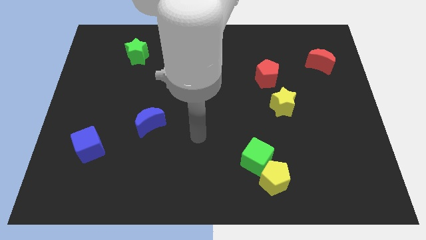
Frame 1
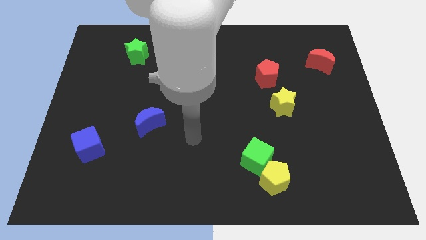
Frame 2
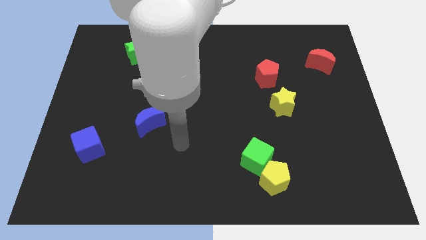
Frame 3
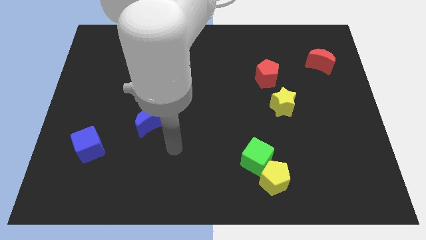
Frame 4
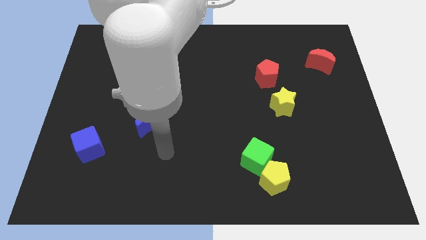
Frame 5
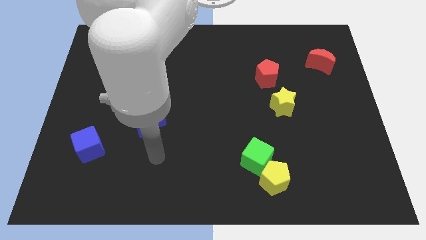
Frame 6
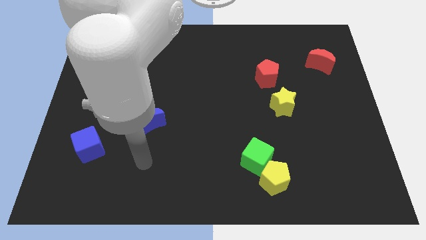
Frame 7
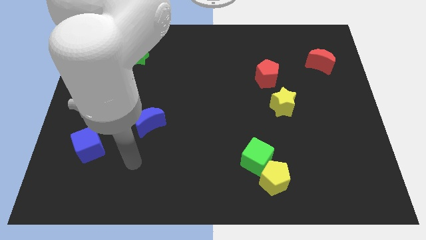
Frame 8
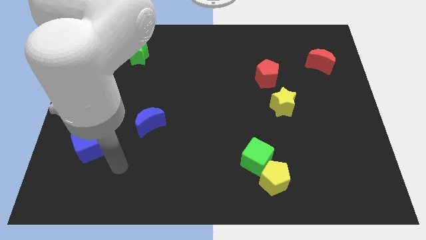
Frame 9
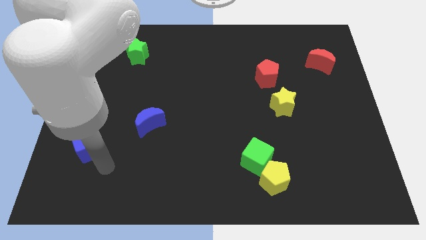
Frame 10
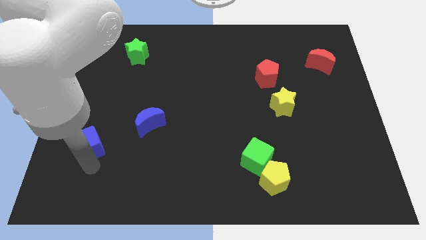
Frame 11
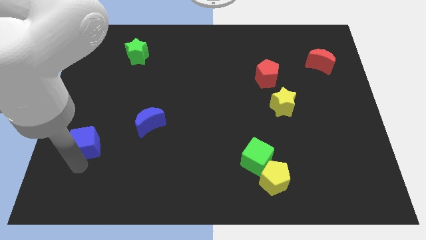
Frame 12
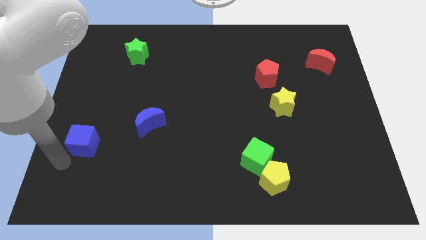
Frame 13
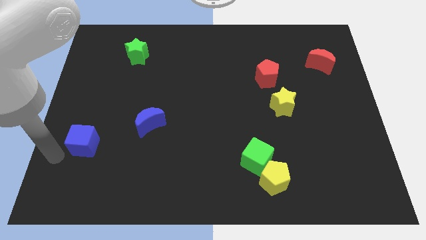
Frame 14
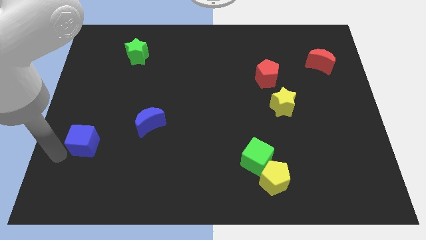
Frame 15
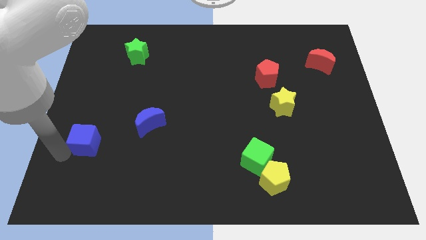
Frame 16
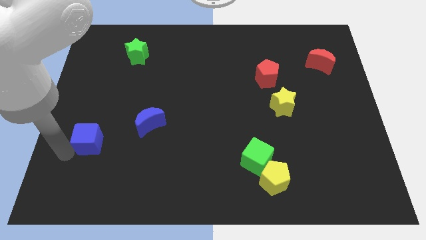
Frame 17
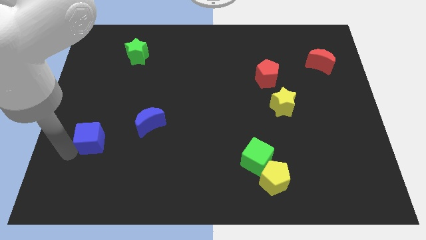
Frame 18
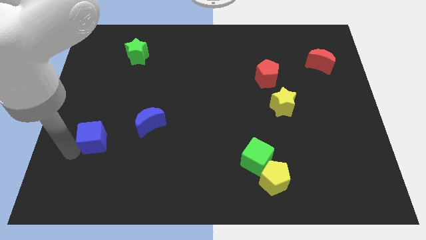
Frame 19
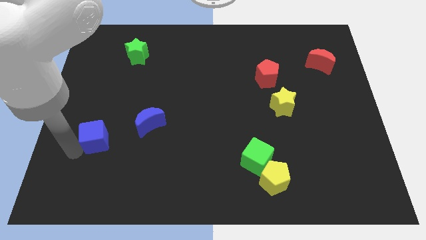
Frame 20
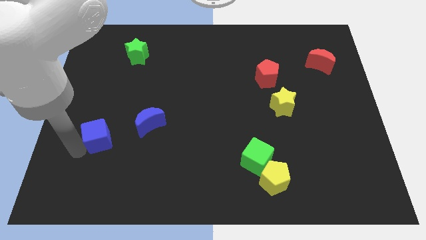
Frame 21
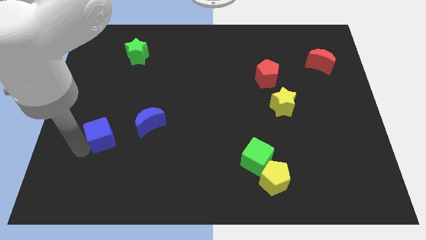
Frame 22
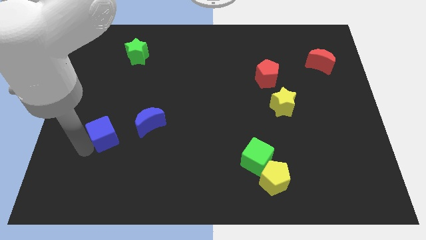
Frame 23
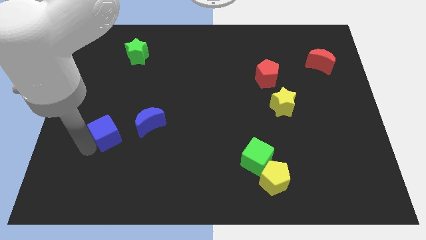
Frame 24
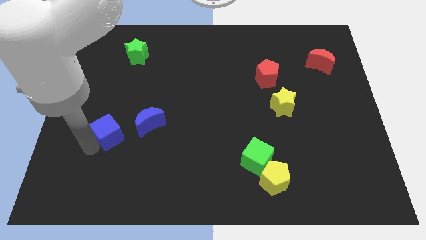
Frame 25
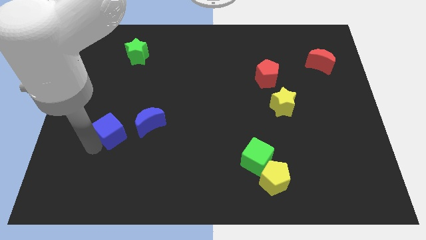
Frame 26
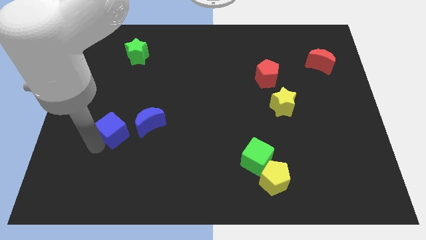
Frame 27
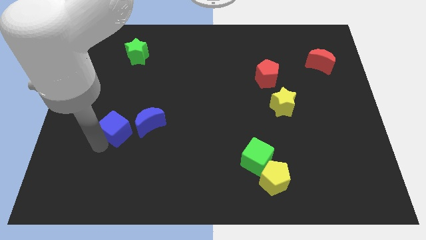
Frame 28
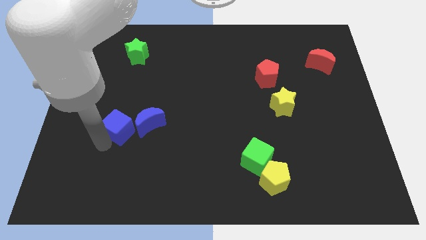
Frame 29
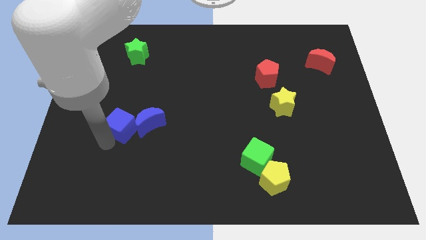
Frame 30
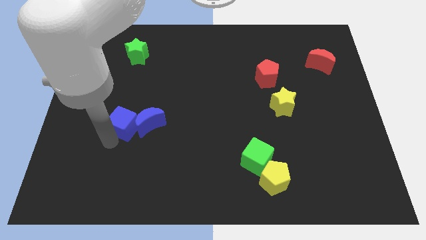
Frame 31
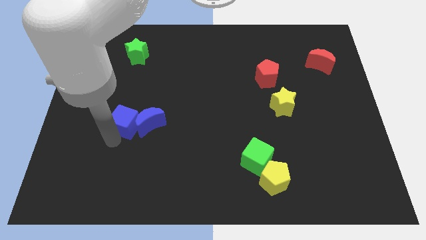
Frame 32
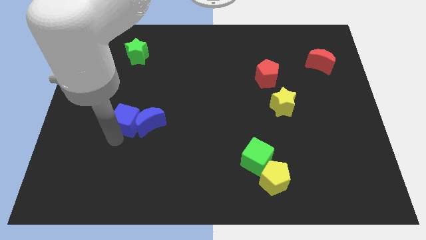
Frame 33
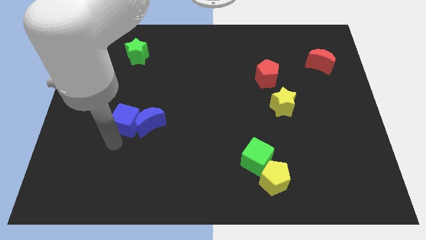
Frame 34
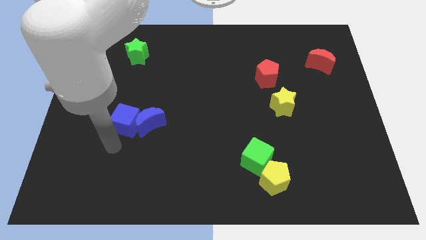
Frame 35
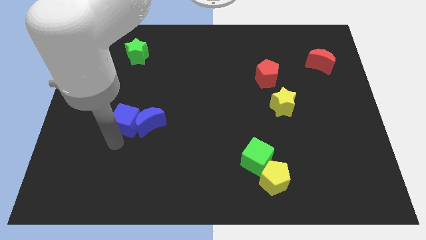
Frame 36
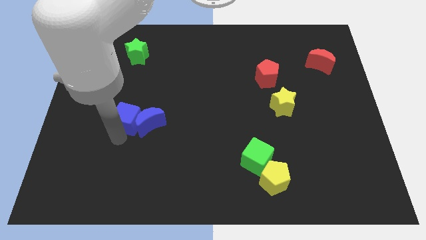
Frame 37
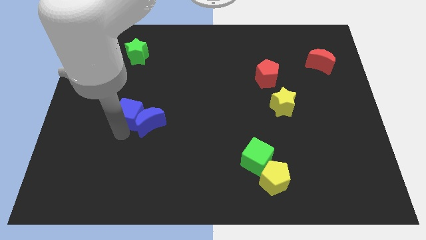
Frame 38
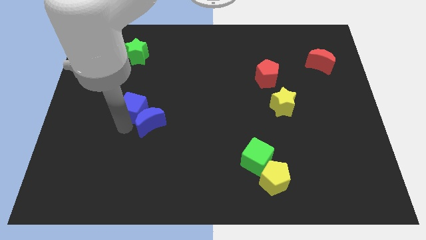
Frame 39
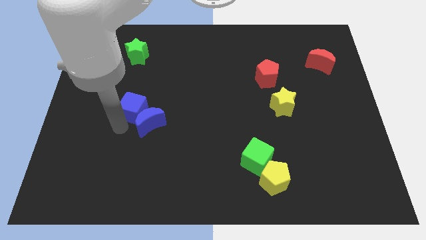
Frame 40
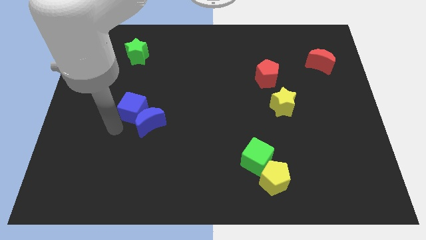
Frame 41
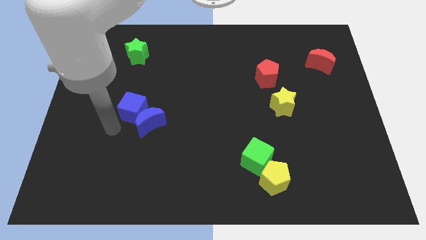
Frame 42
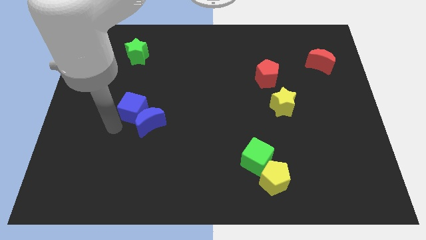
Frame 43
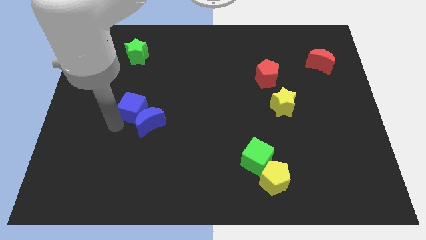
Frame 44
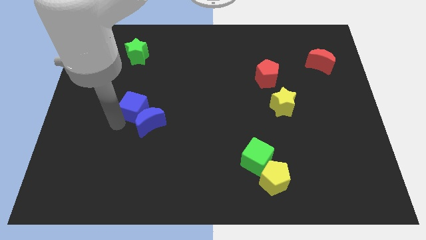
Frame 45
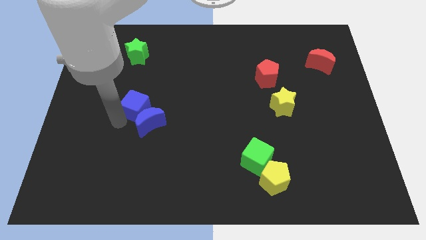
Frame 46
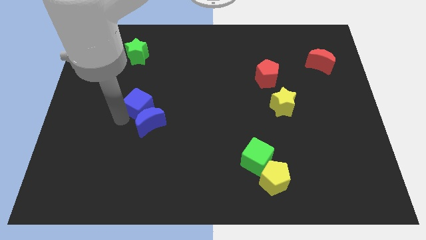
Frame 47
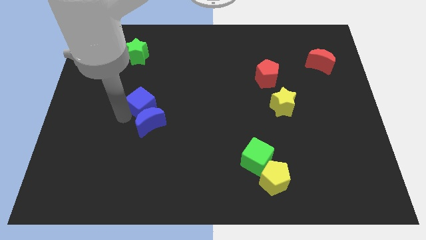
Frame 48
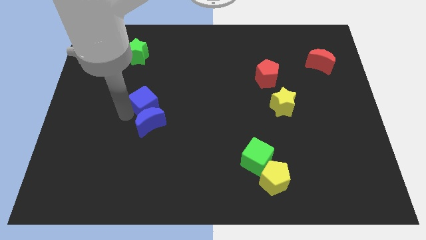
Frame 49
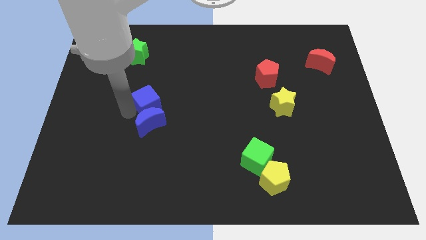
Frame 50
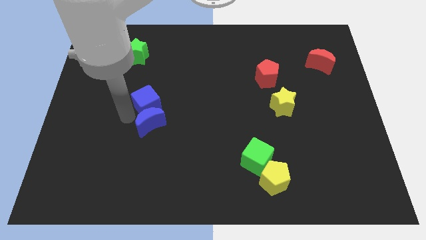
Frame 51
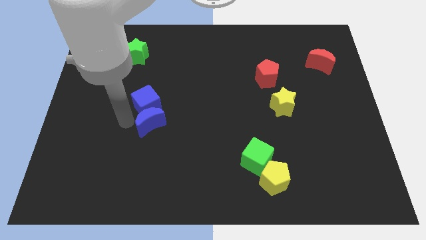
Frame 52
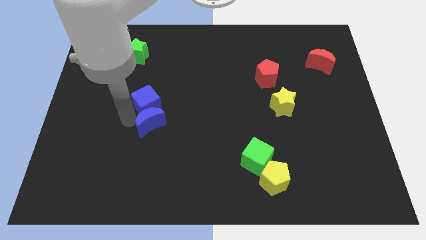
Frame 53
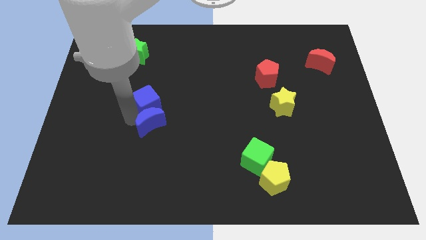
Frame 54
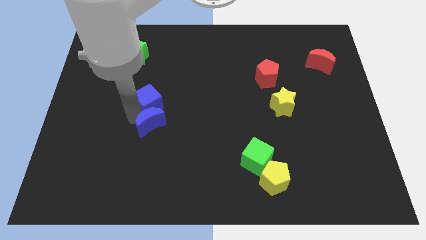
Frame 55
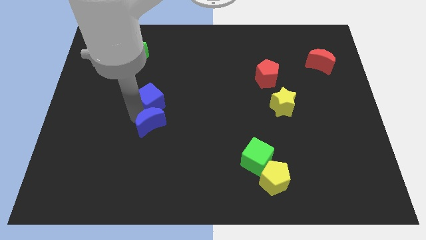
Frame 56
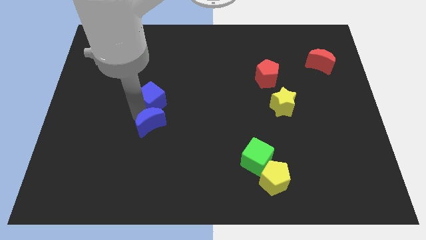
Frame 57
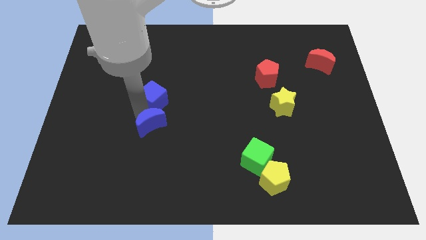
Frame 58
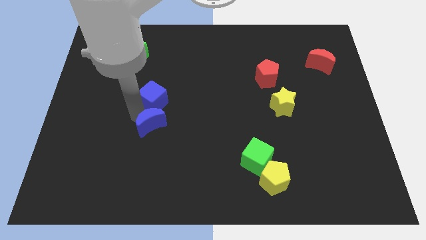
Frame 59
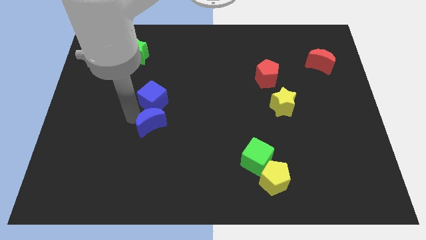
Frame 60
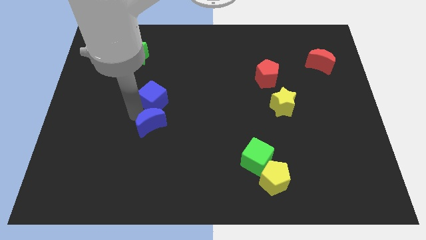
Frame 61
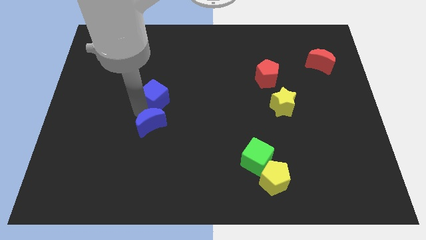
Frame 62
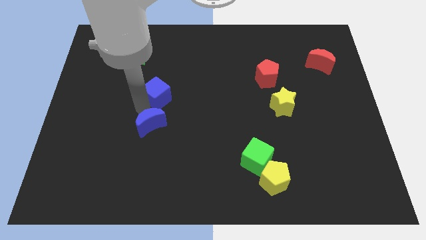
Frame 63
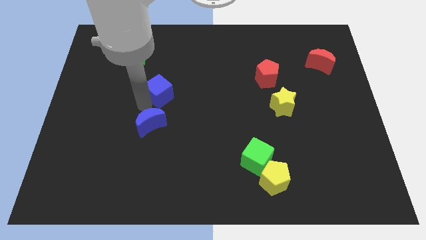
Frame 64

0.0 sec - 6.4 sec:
push the blue cube diagonally up and right

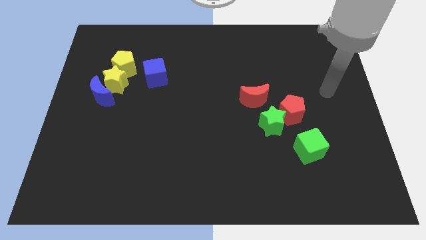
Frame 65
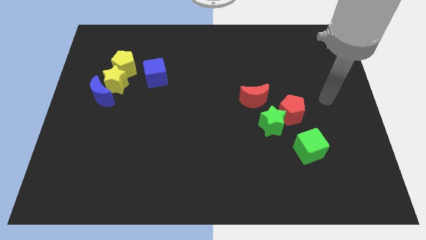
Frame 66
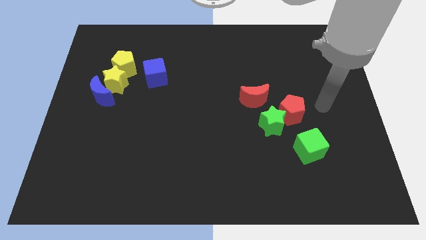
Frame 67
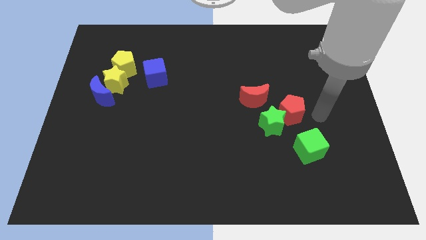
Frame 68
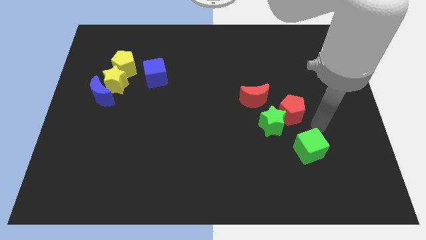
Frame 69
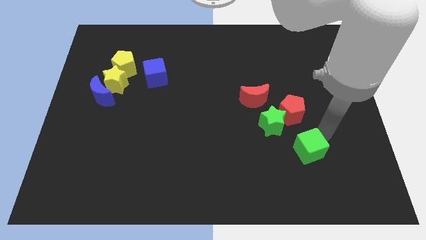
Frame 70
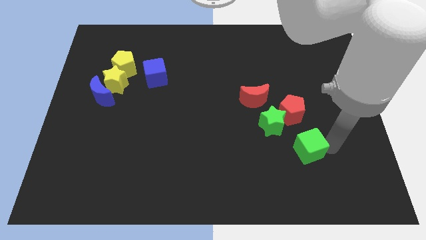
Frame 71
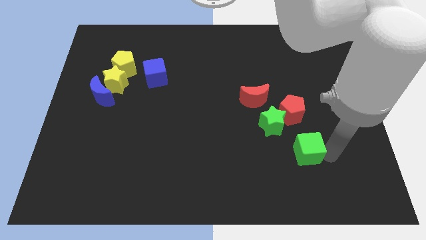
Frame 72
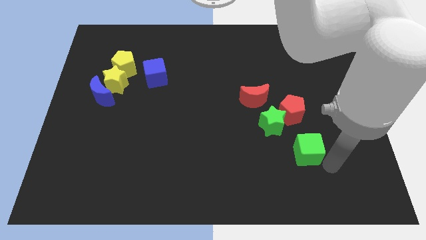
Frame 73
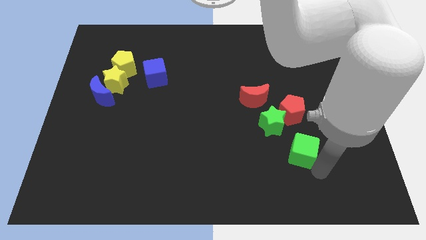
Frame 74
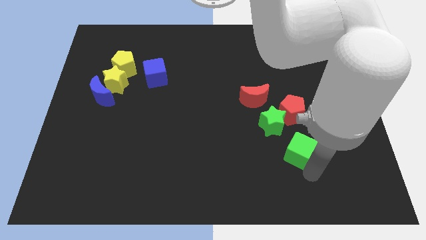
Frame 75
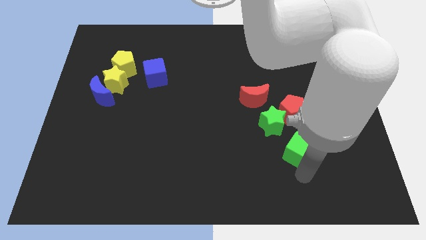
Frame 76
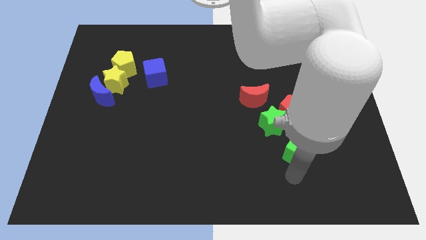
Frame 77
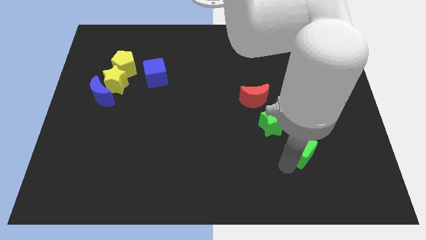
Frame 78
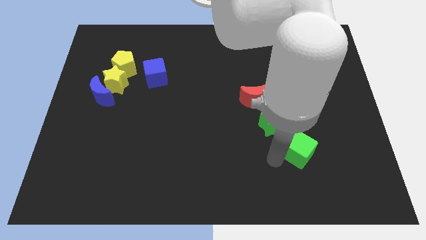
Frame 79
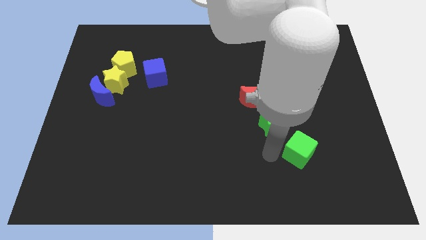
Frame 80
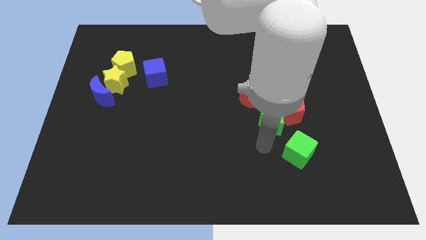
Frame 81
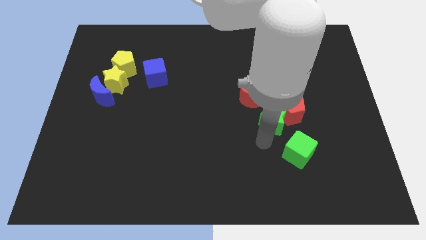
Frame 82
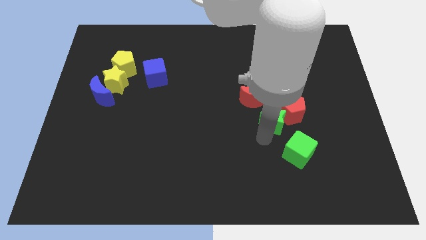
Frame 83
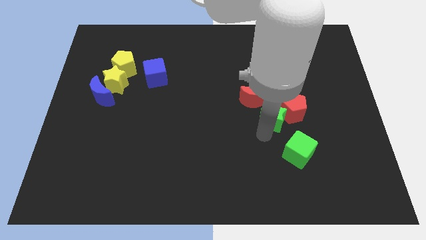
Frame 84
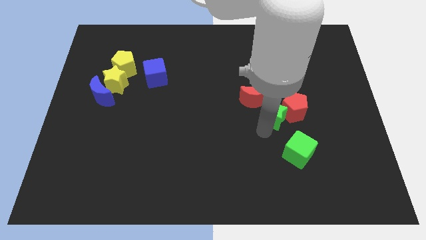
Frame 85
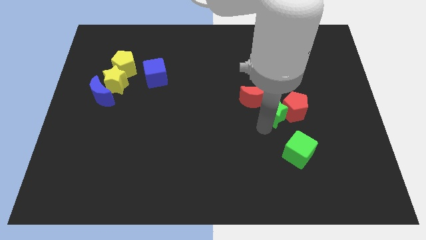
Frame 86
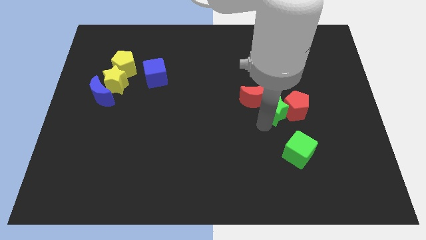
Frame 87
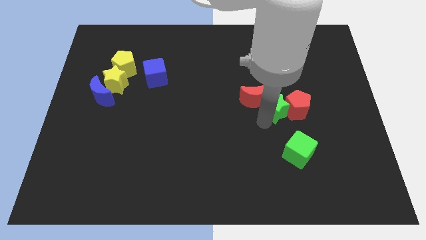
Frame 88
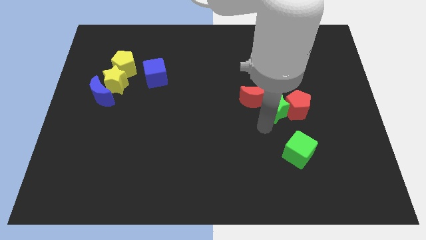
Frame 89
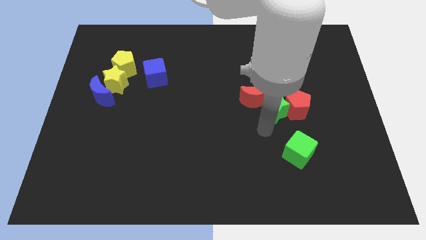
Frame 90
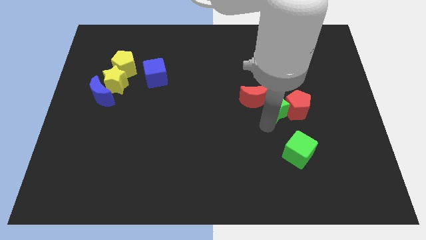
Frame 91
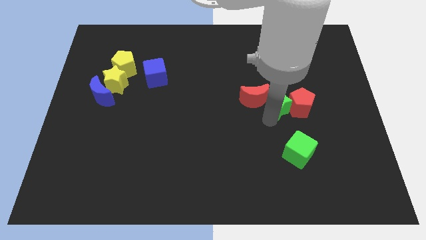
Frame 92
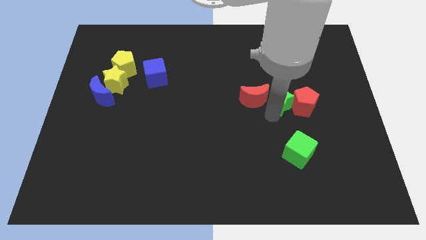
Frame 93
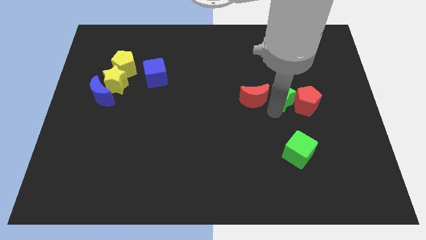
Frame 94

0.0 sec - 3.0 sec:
push the green star upwards a little
